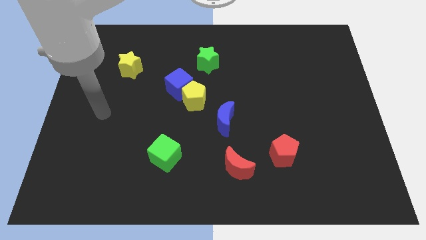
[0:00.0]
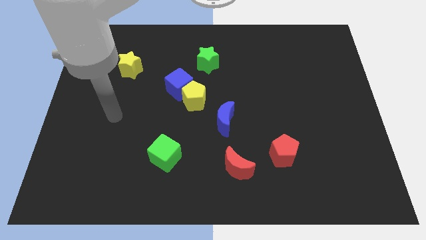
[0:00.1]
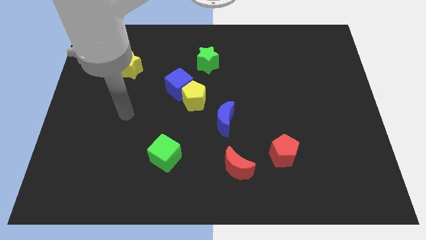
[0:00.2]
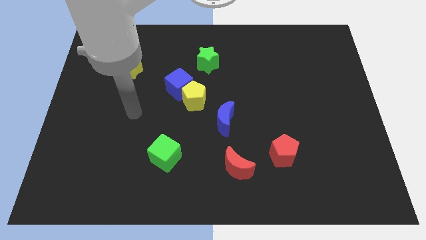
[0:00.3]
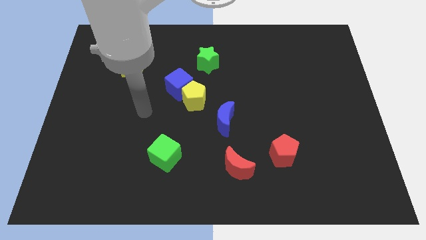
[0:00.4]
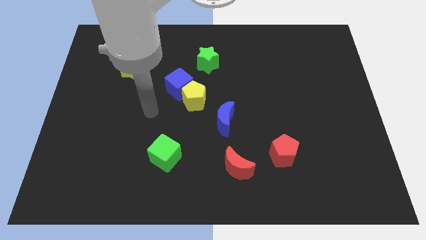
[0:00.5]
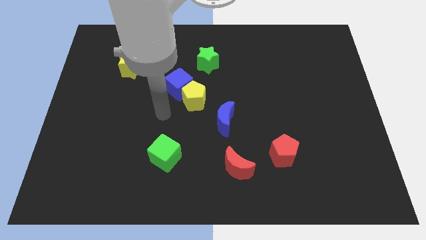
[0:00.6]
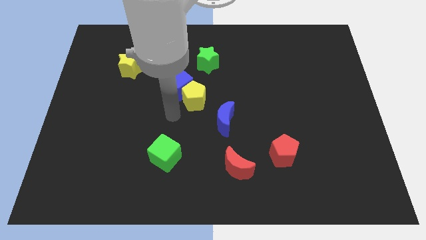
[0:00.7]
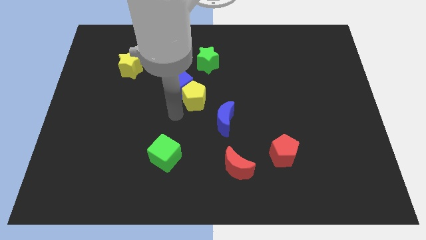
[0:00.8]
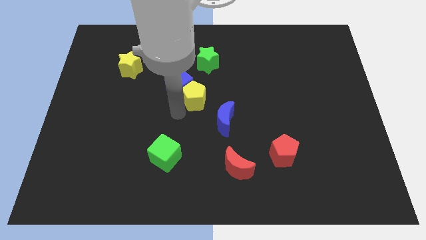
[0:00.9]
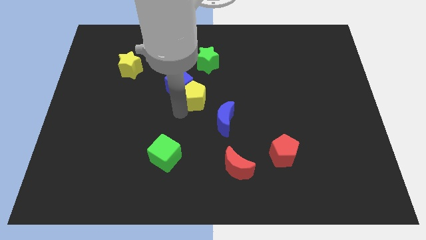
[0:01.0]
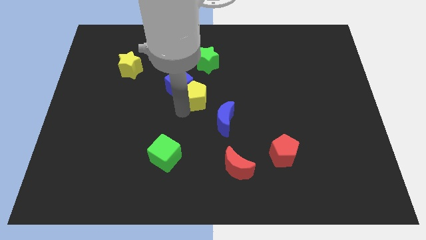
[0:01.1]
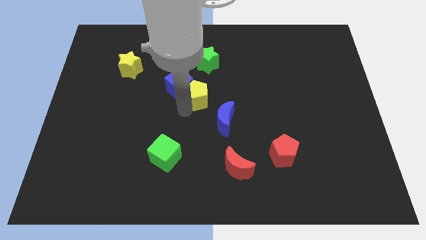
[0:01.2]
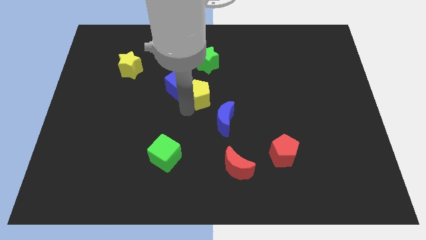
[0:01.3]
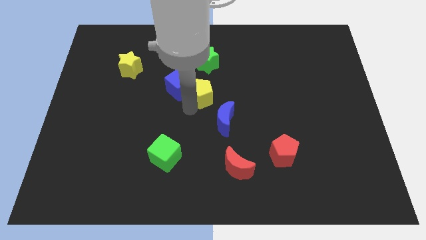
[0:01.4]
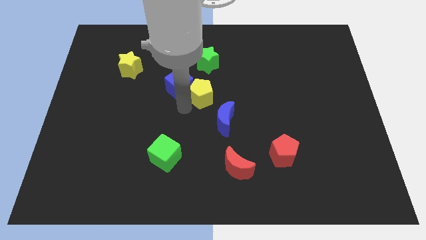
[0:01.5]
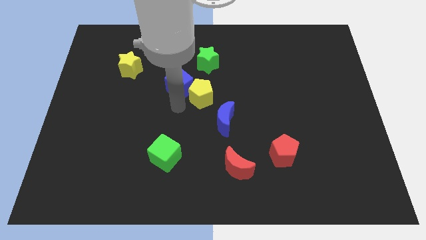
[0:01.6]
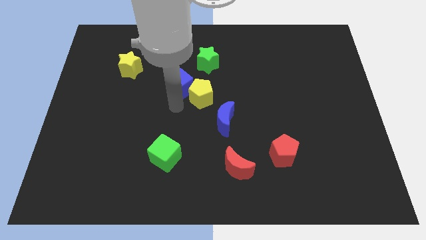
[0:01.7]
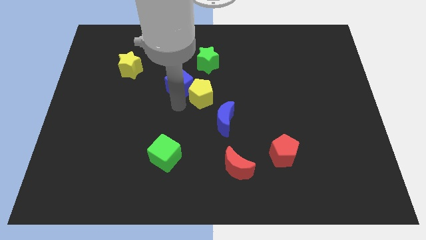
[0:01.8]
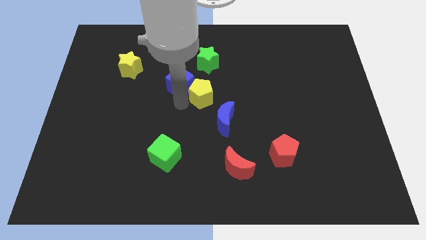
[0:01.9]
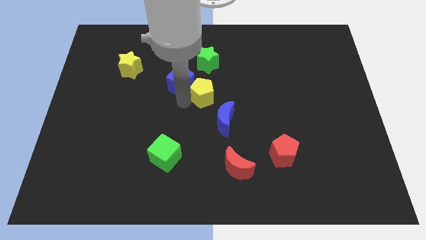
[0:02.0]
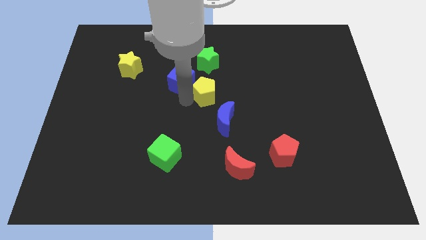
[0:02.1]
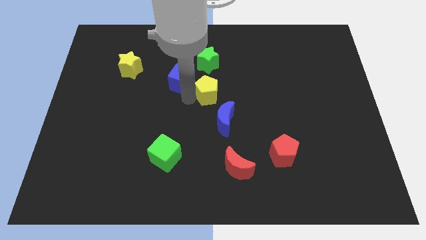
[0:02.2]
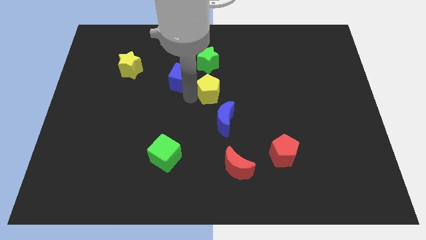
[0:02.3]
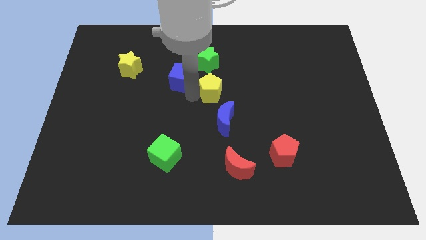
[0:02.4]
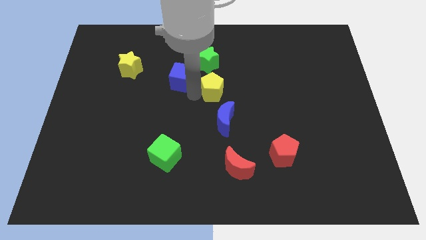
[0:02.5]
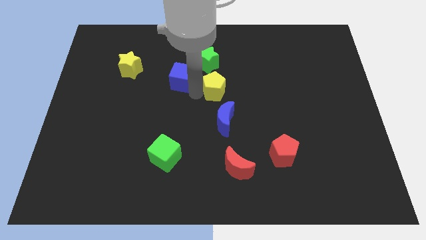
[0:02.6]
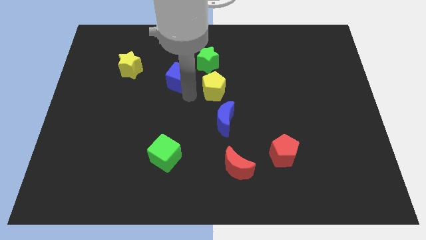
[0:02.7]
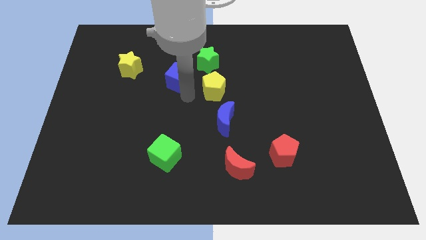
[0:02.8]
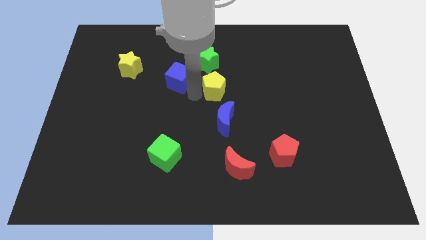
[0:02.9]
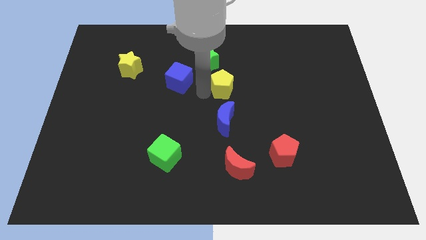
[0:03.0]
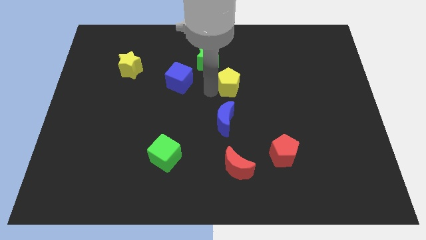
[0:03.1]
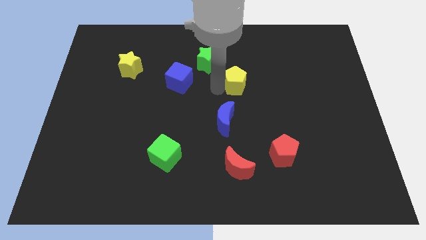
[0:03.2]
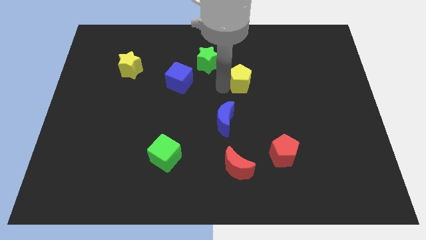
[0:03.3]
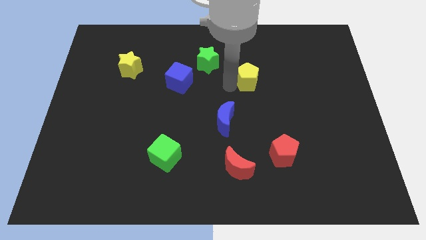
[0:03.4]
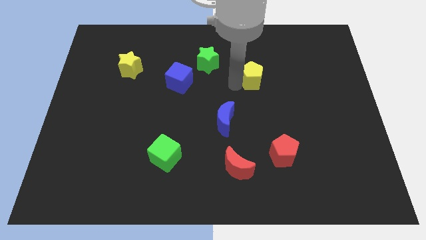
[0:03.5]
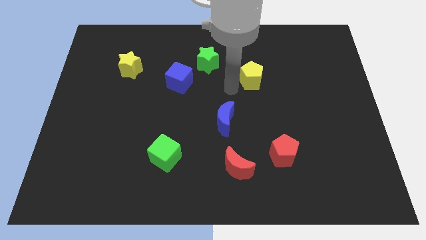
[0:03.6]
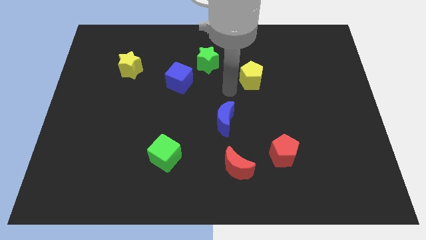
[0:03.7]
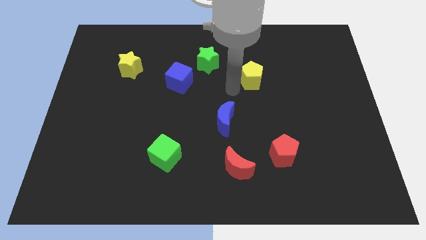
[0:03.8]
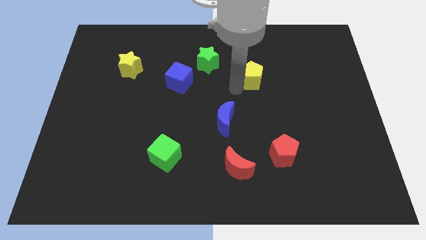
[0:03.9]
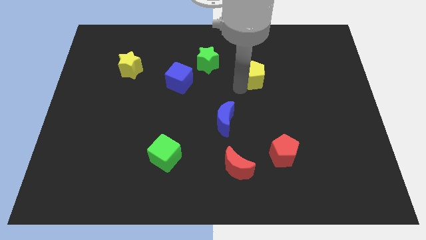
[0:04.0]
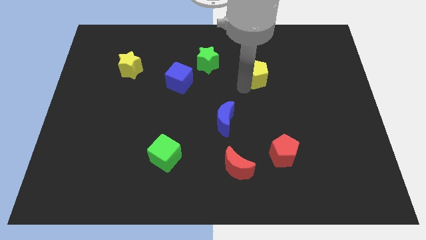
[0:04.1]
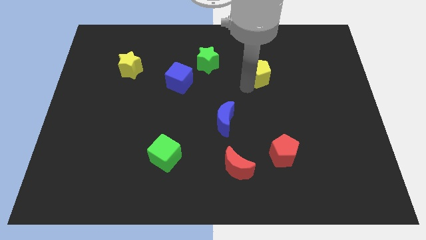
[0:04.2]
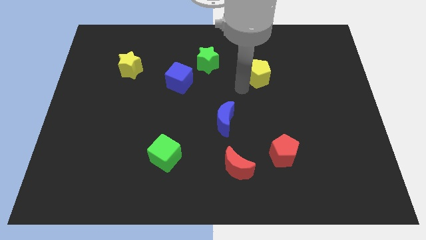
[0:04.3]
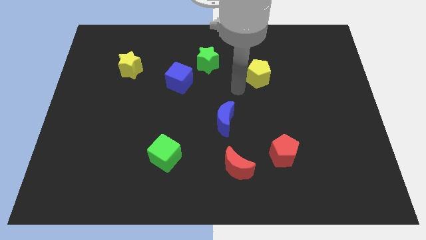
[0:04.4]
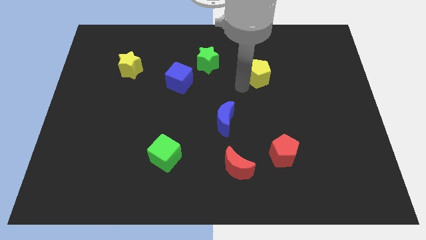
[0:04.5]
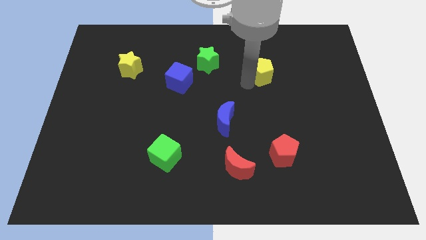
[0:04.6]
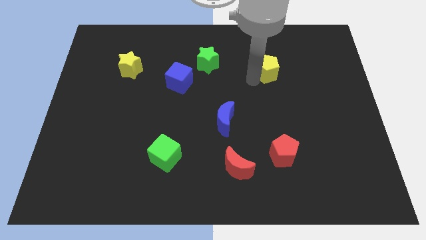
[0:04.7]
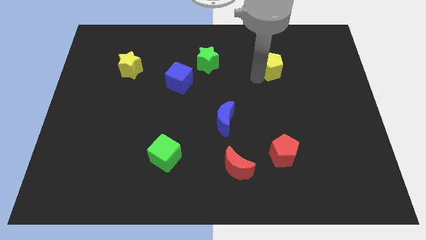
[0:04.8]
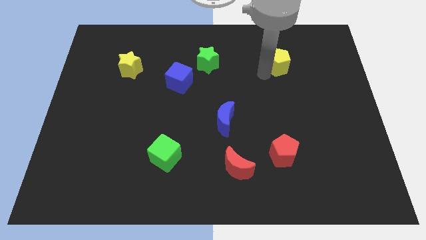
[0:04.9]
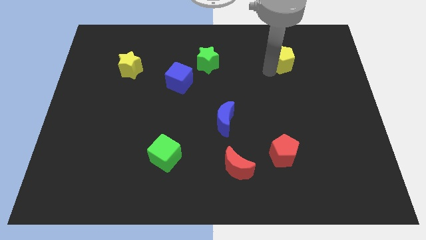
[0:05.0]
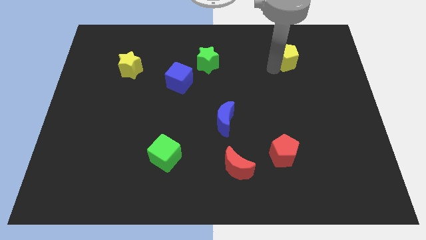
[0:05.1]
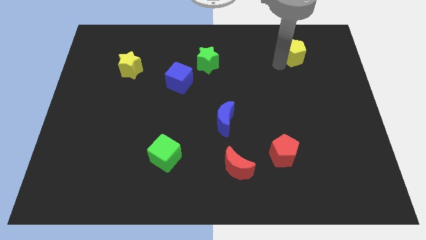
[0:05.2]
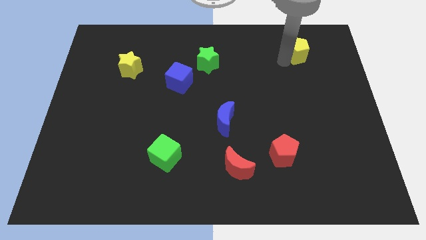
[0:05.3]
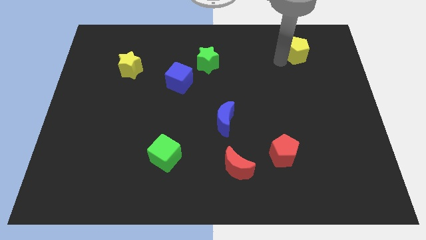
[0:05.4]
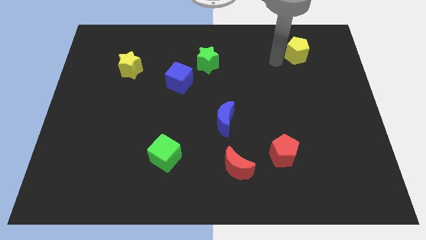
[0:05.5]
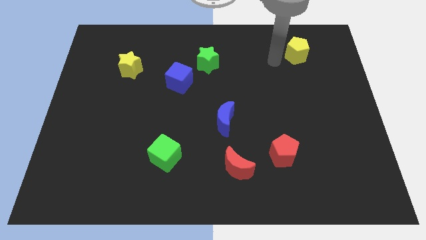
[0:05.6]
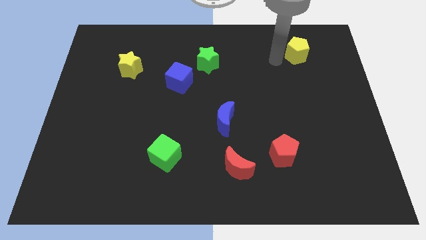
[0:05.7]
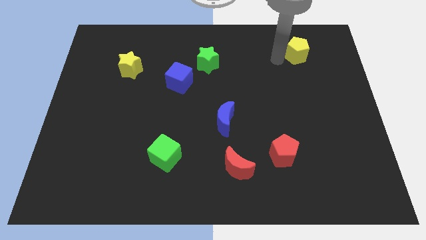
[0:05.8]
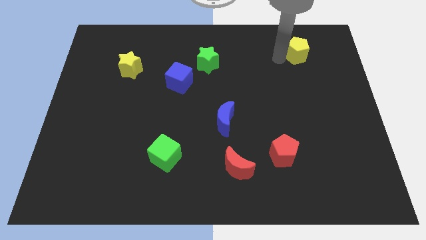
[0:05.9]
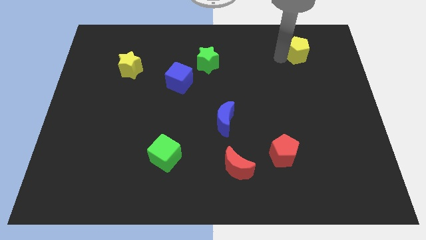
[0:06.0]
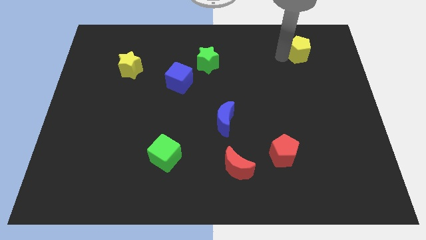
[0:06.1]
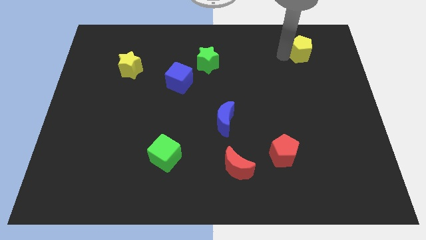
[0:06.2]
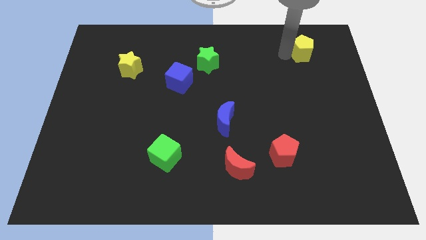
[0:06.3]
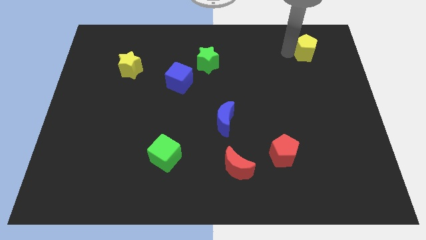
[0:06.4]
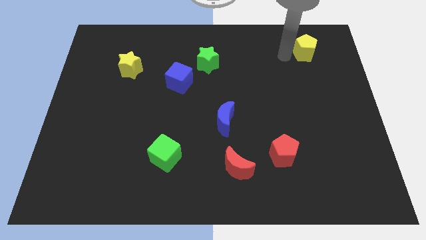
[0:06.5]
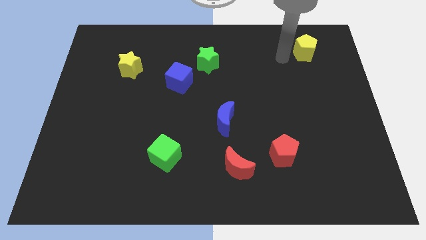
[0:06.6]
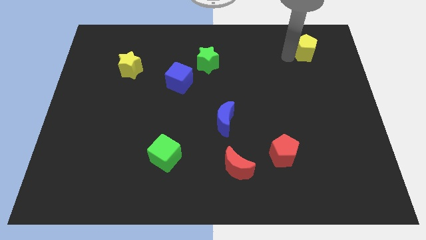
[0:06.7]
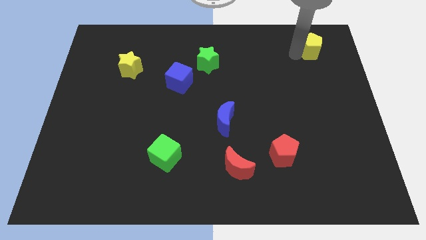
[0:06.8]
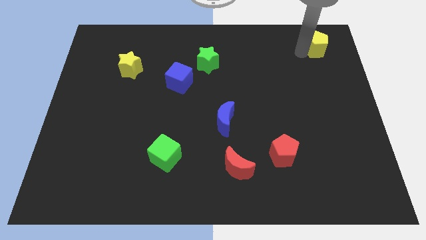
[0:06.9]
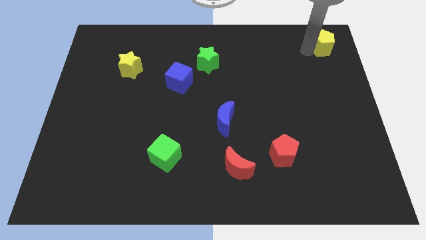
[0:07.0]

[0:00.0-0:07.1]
slide the yellow pentagon to the top right

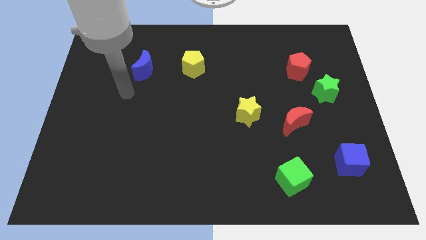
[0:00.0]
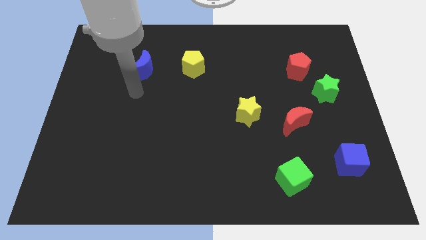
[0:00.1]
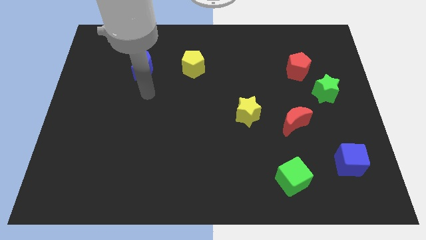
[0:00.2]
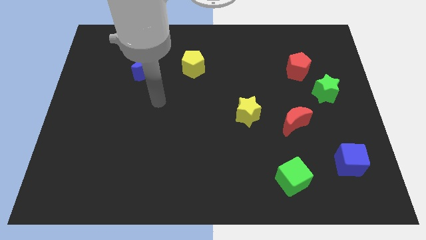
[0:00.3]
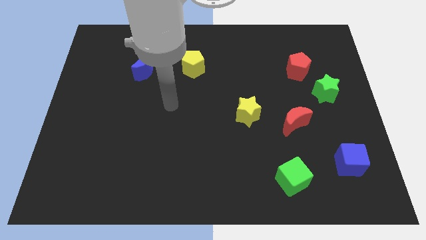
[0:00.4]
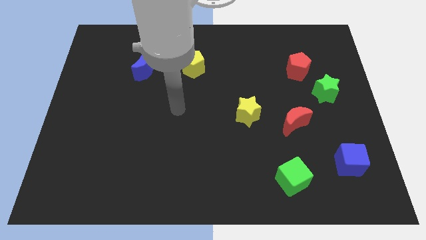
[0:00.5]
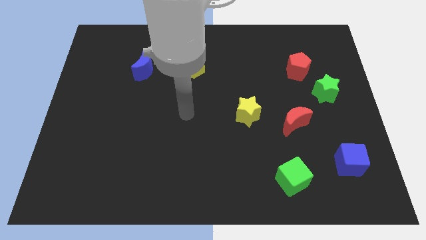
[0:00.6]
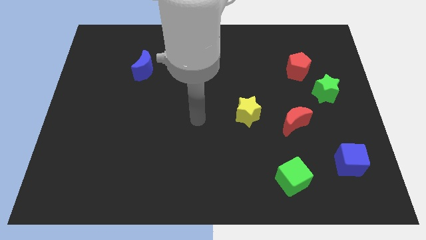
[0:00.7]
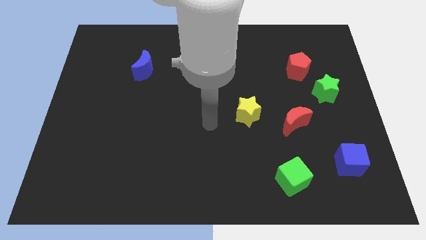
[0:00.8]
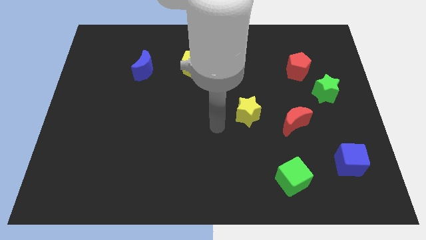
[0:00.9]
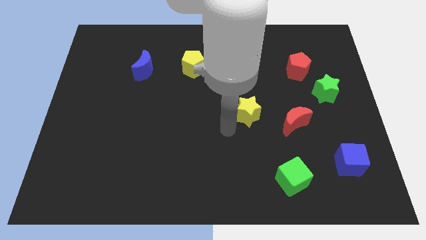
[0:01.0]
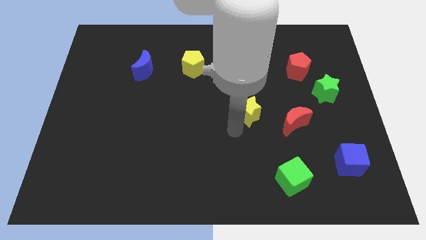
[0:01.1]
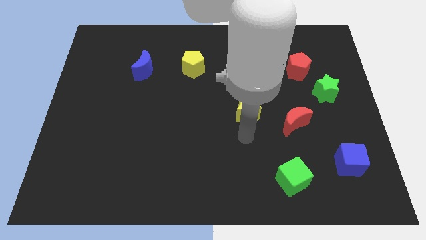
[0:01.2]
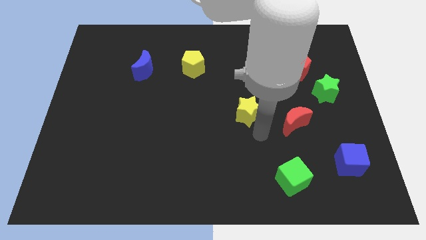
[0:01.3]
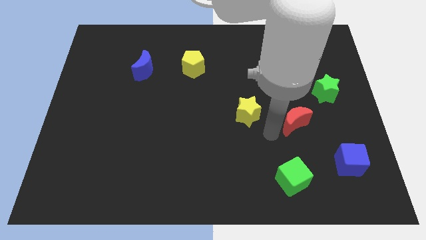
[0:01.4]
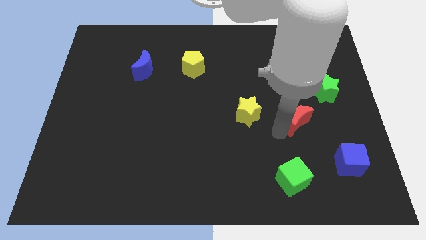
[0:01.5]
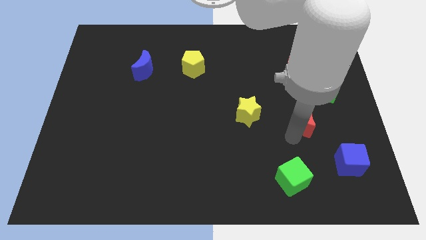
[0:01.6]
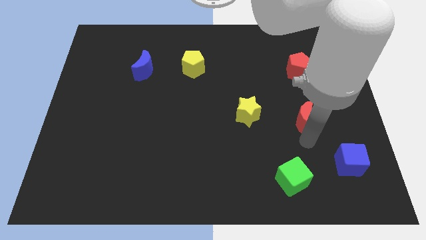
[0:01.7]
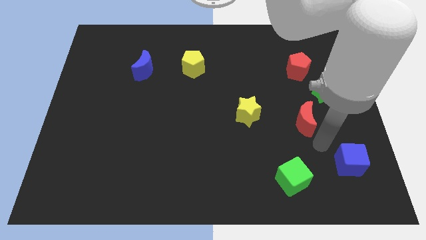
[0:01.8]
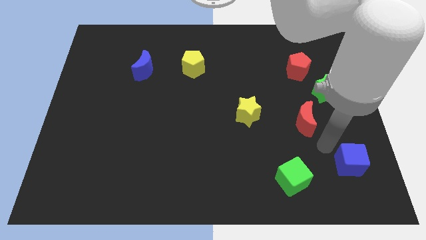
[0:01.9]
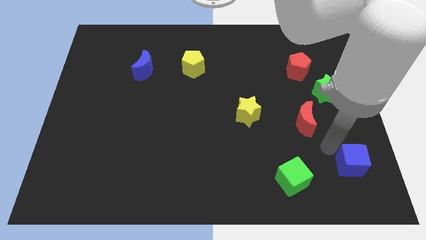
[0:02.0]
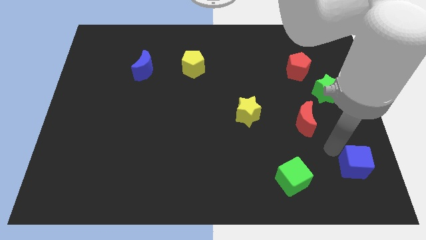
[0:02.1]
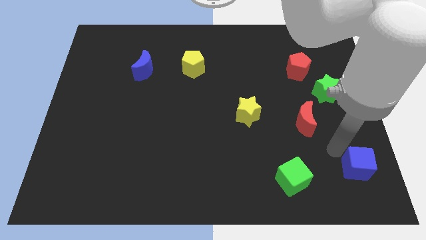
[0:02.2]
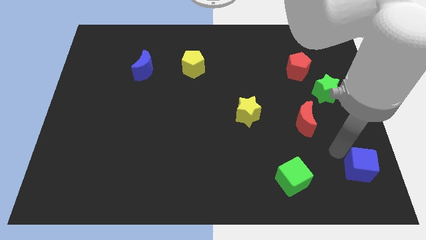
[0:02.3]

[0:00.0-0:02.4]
put the blue cube to the bottom right of the board
